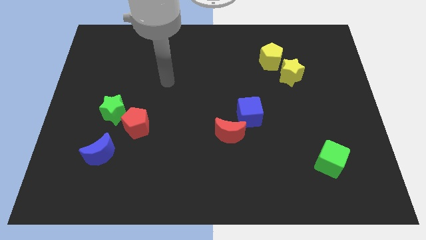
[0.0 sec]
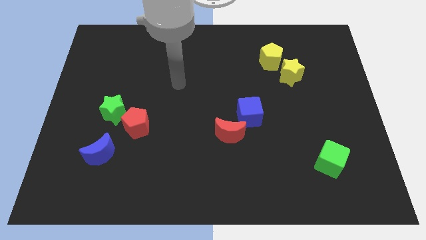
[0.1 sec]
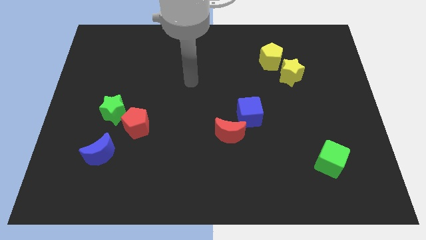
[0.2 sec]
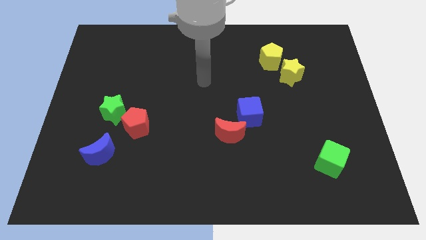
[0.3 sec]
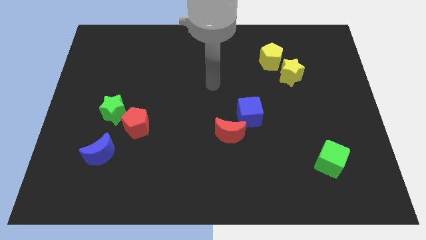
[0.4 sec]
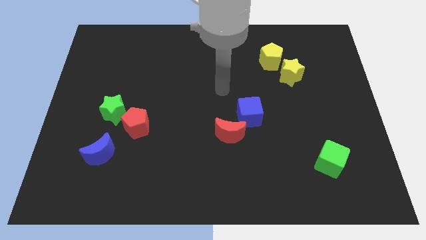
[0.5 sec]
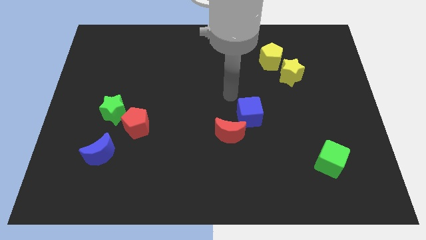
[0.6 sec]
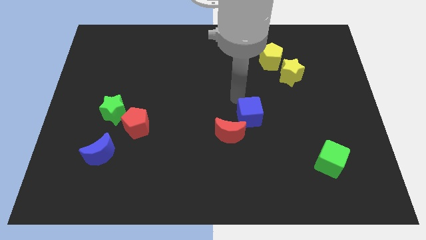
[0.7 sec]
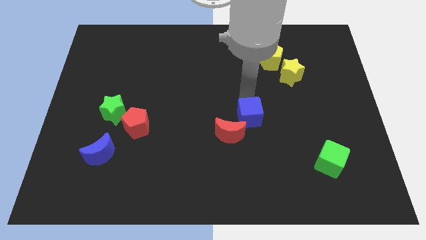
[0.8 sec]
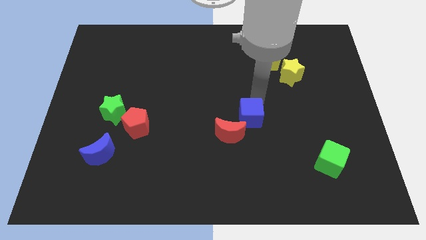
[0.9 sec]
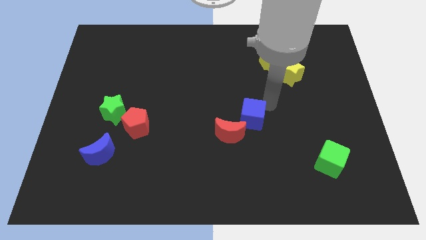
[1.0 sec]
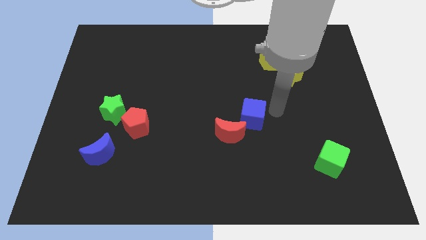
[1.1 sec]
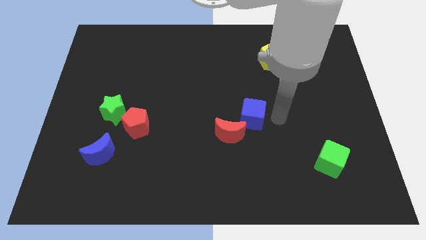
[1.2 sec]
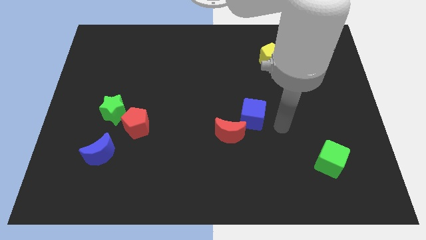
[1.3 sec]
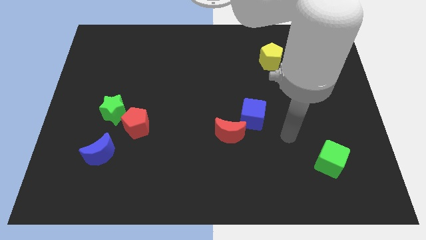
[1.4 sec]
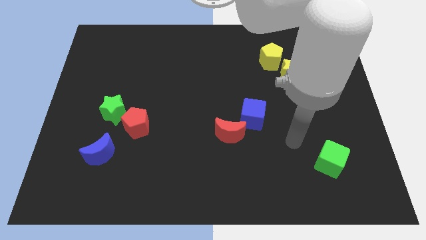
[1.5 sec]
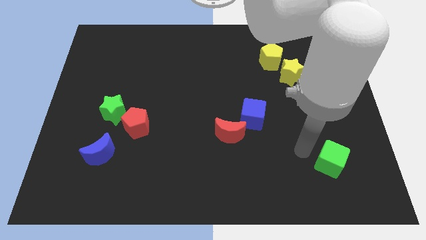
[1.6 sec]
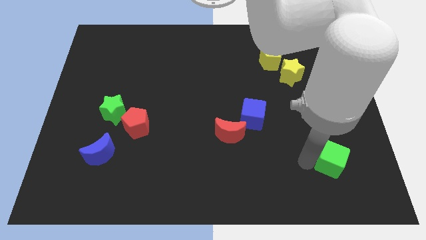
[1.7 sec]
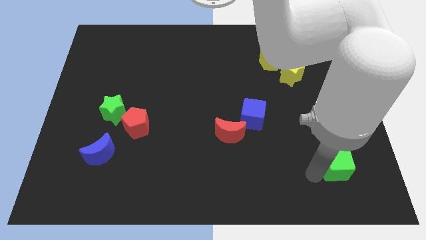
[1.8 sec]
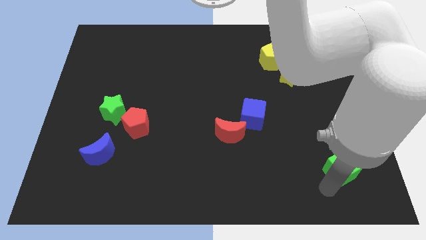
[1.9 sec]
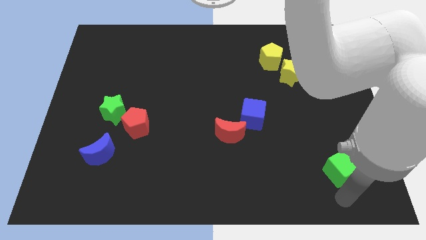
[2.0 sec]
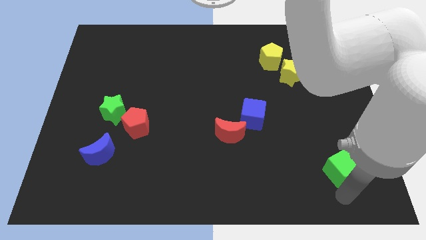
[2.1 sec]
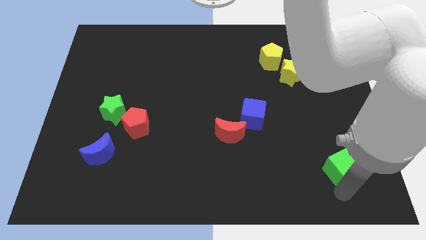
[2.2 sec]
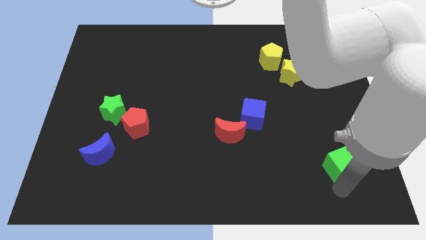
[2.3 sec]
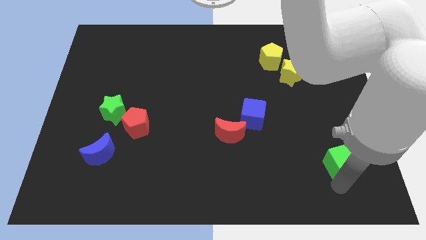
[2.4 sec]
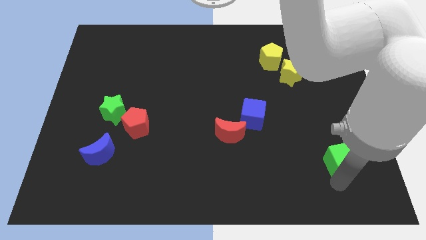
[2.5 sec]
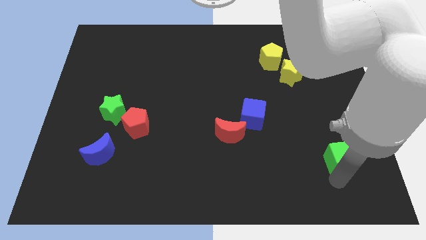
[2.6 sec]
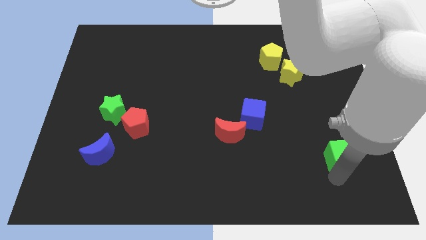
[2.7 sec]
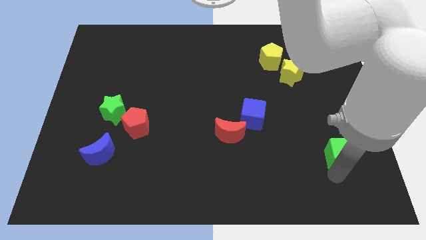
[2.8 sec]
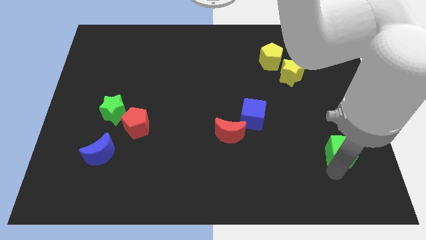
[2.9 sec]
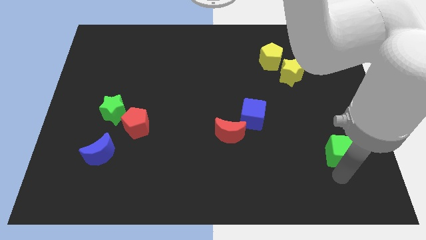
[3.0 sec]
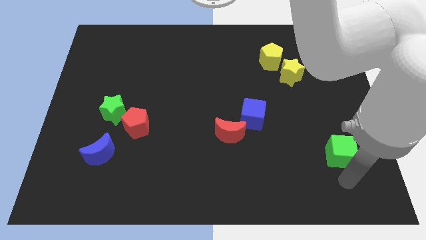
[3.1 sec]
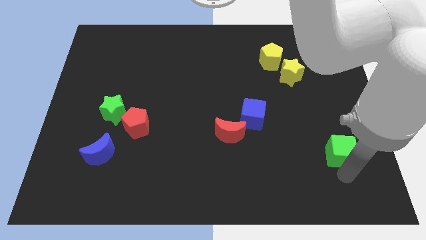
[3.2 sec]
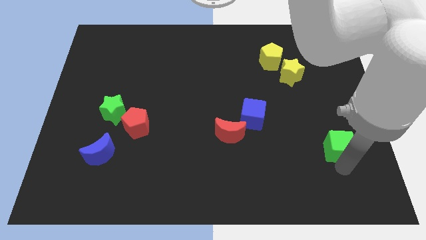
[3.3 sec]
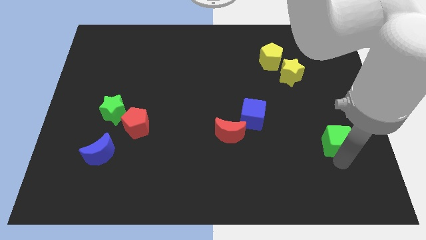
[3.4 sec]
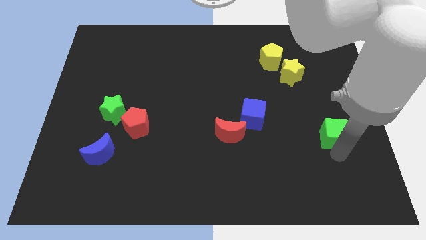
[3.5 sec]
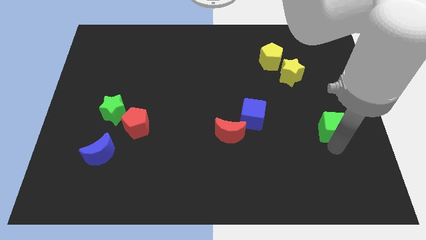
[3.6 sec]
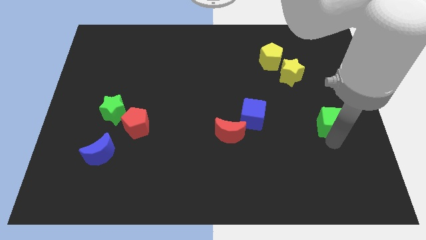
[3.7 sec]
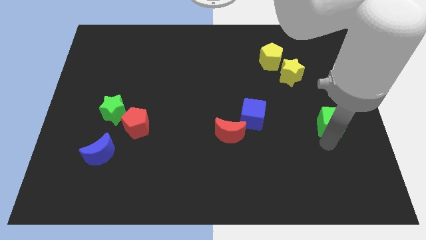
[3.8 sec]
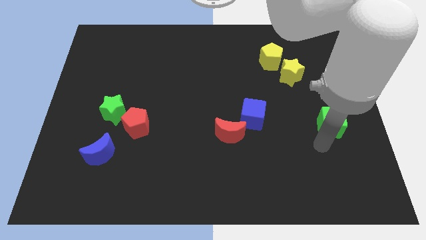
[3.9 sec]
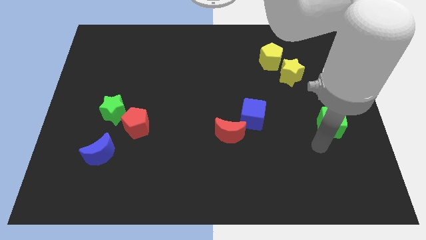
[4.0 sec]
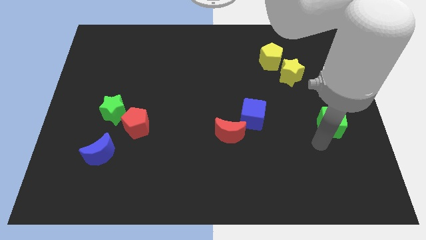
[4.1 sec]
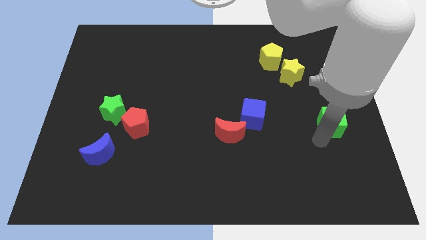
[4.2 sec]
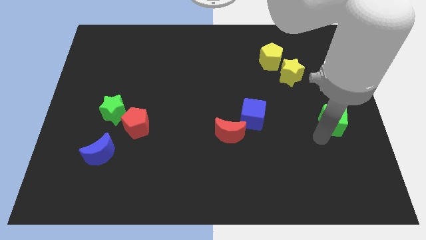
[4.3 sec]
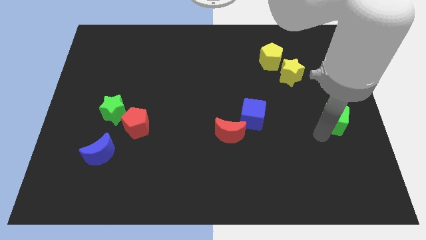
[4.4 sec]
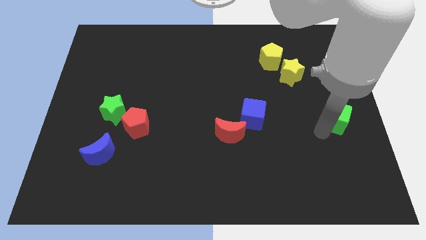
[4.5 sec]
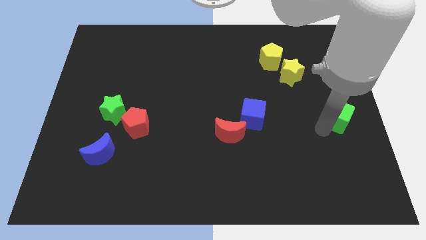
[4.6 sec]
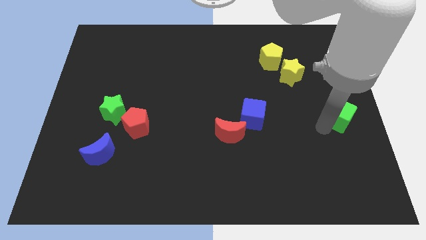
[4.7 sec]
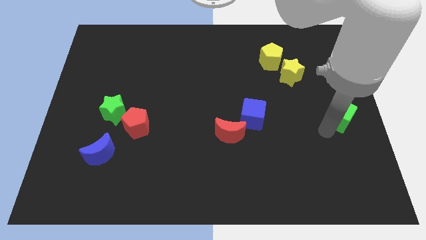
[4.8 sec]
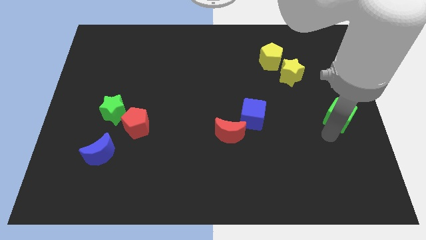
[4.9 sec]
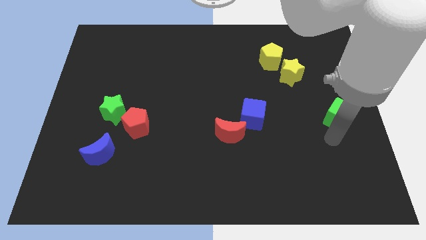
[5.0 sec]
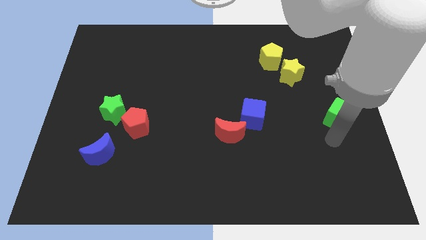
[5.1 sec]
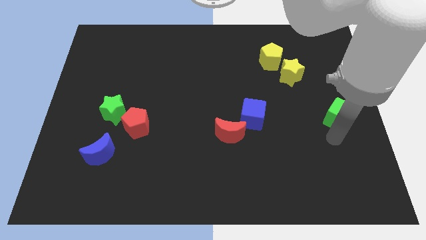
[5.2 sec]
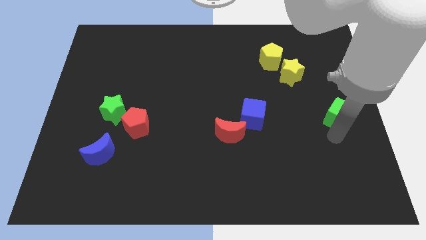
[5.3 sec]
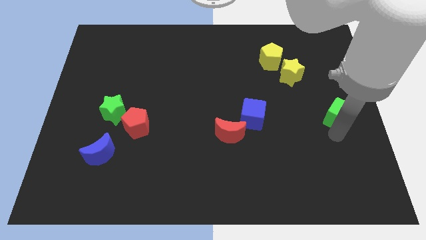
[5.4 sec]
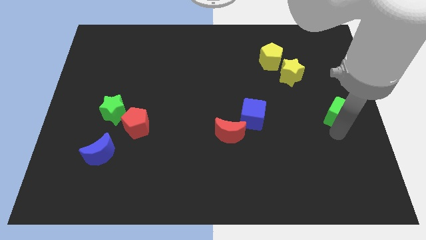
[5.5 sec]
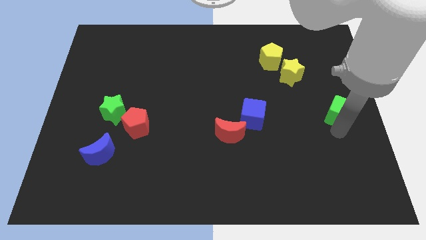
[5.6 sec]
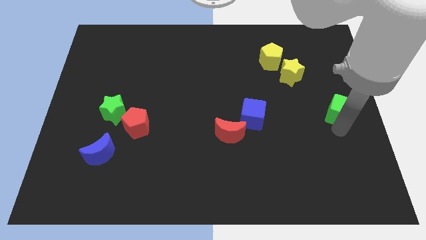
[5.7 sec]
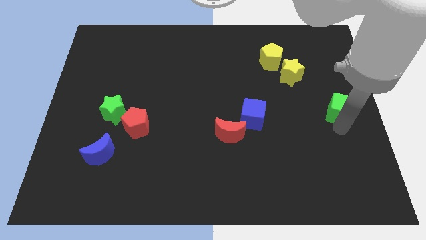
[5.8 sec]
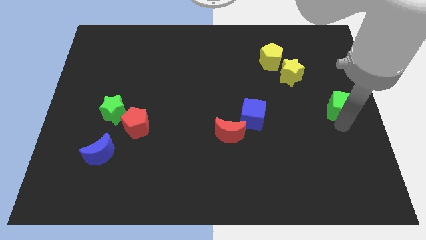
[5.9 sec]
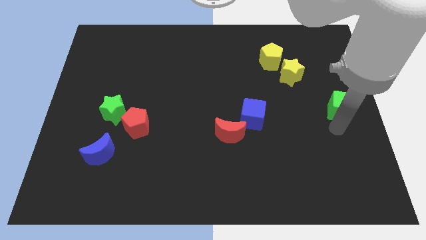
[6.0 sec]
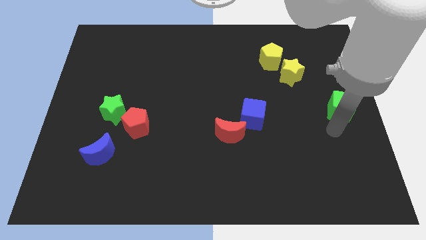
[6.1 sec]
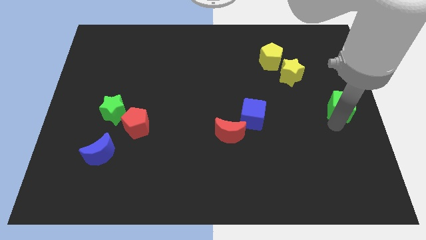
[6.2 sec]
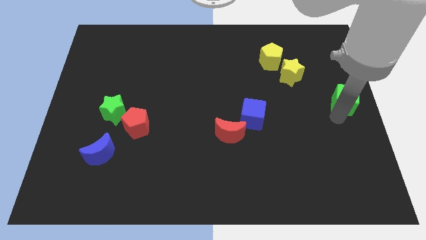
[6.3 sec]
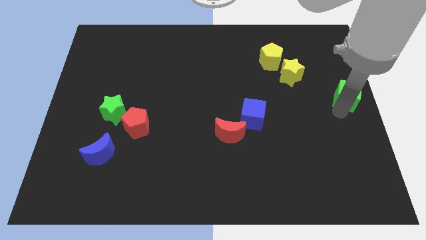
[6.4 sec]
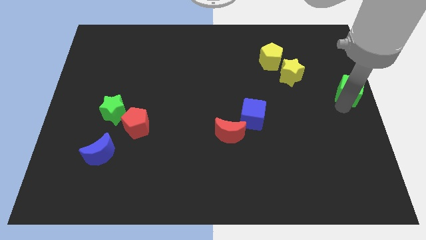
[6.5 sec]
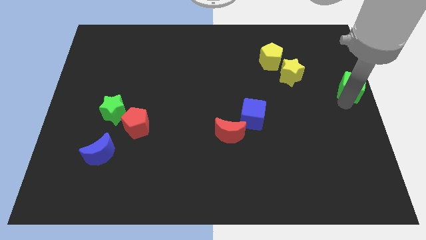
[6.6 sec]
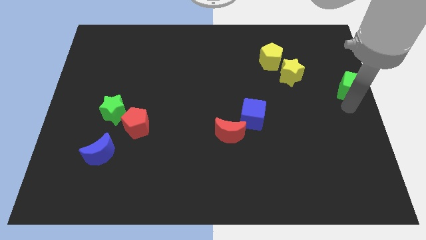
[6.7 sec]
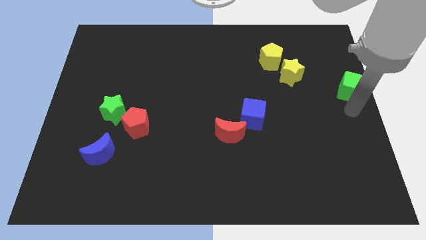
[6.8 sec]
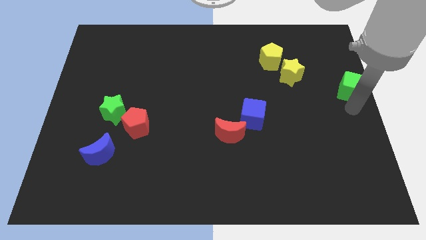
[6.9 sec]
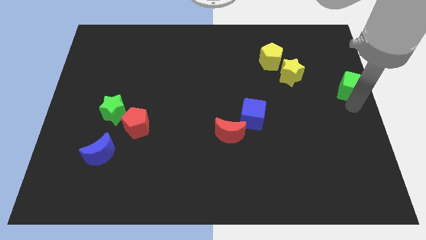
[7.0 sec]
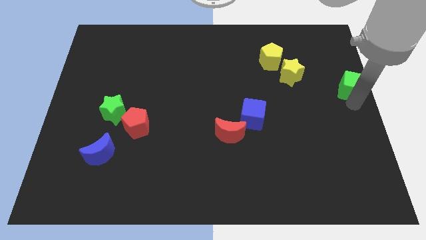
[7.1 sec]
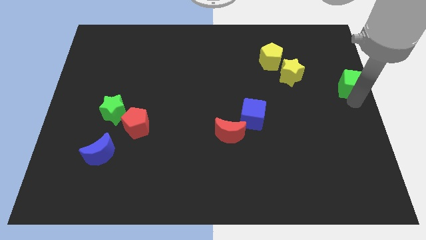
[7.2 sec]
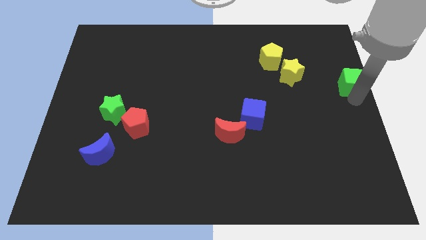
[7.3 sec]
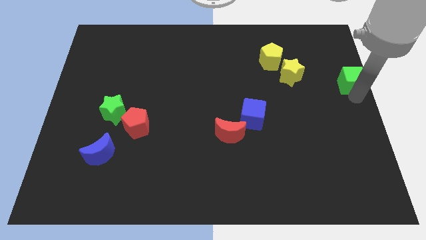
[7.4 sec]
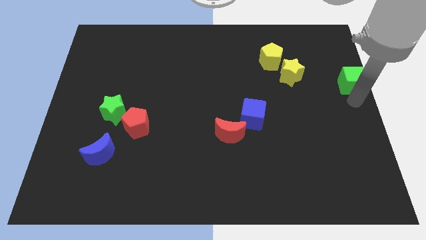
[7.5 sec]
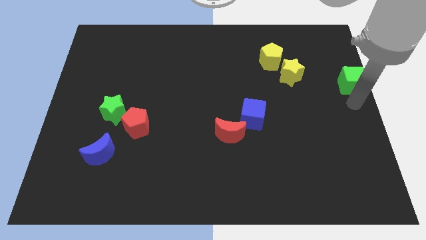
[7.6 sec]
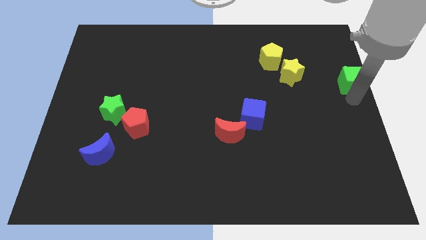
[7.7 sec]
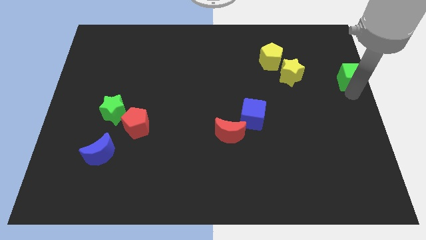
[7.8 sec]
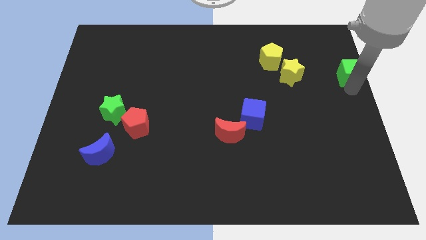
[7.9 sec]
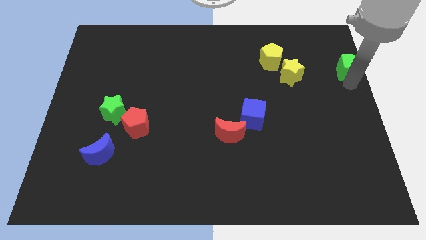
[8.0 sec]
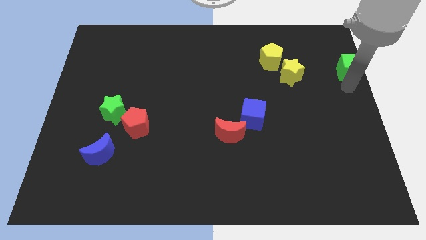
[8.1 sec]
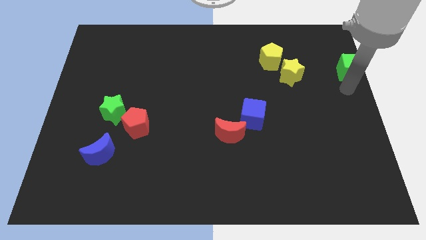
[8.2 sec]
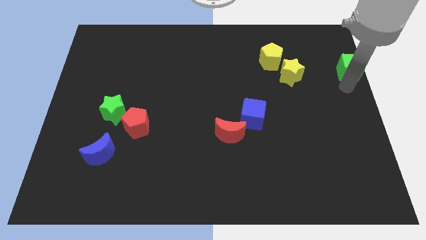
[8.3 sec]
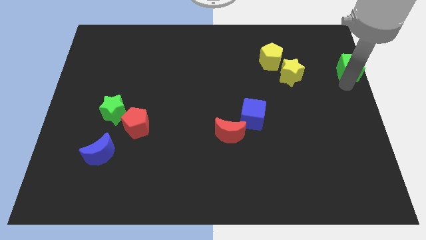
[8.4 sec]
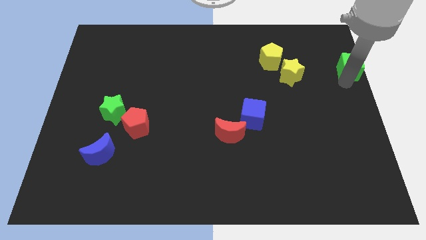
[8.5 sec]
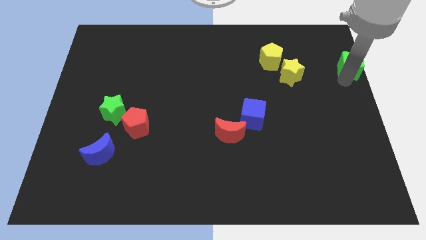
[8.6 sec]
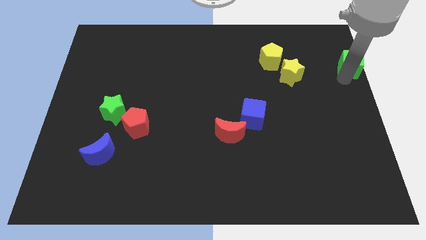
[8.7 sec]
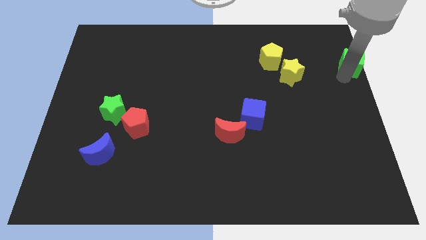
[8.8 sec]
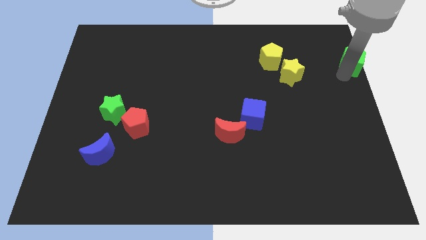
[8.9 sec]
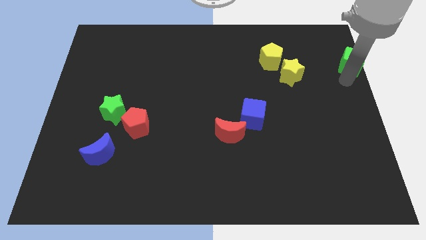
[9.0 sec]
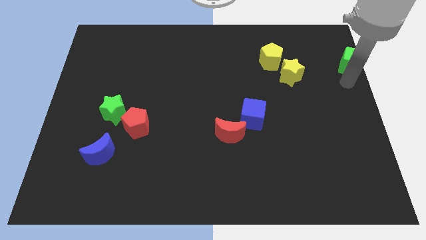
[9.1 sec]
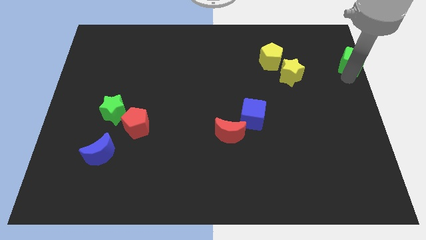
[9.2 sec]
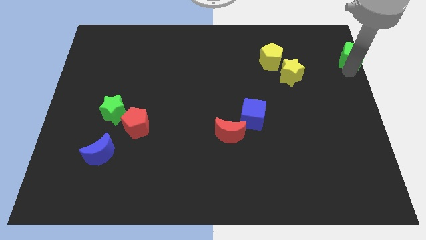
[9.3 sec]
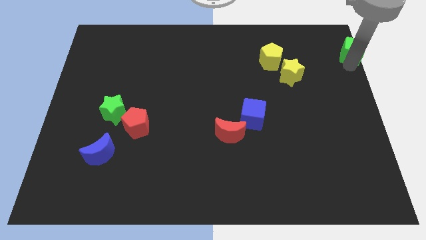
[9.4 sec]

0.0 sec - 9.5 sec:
push the green cube to the top right corner
